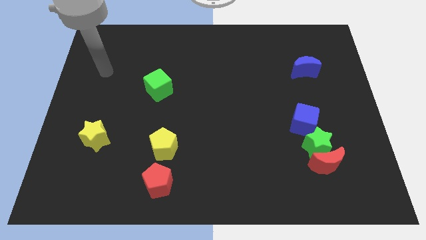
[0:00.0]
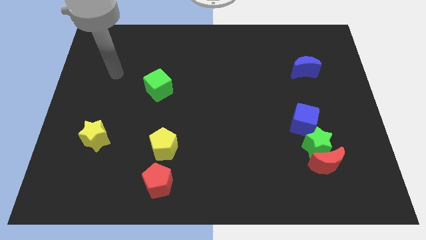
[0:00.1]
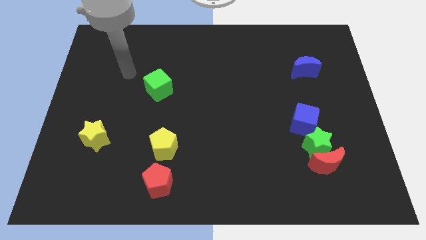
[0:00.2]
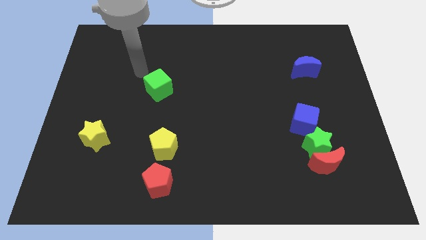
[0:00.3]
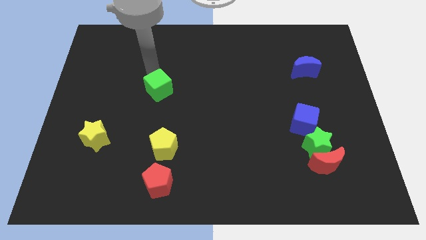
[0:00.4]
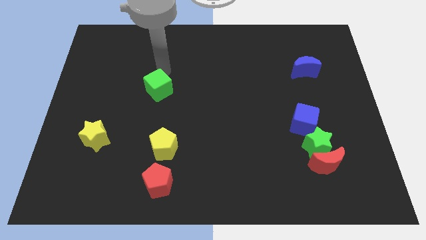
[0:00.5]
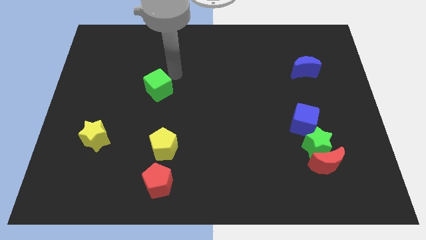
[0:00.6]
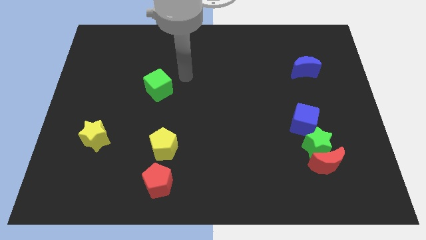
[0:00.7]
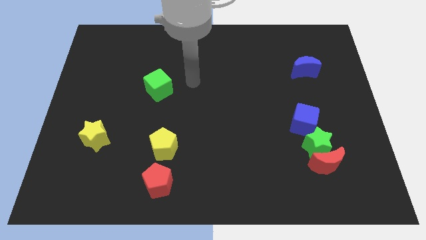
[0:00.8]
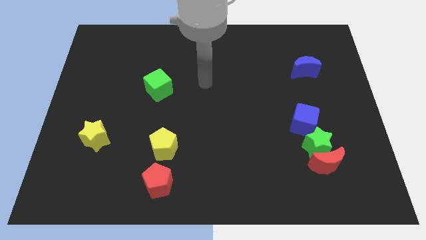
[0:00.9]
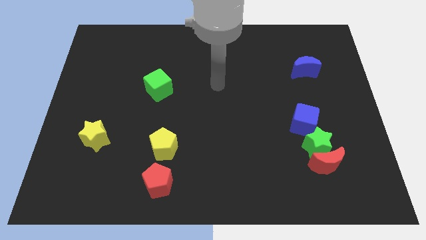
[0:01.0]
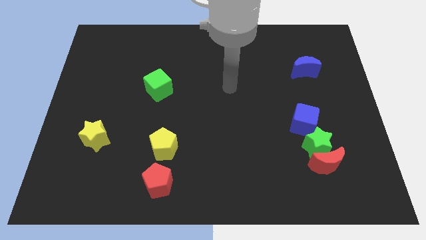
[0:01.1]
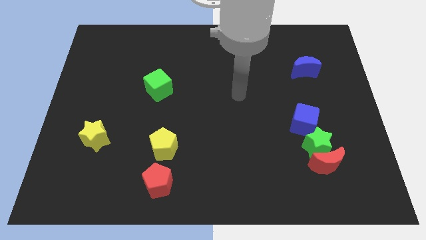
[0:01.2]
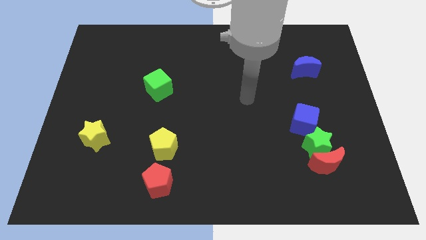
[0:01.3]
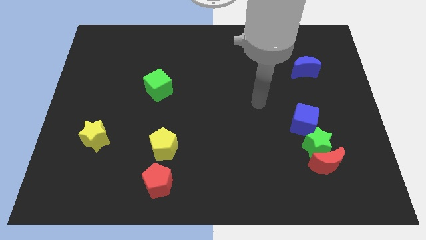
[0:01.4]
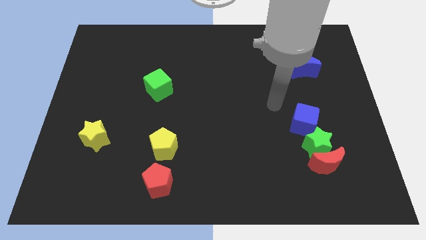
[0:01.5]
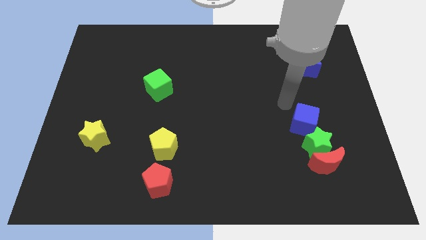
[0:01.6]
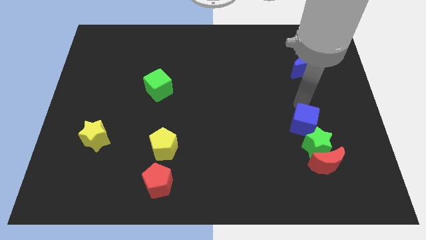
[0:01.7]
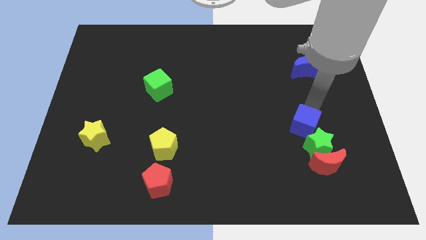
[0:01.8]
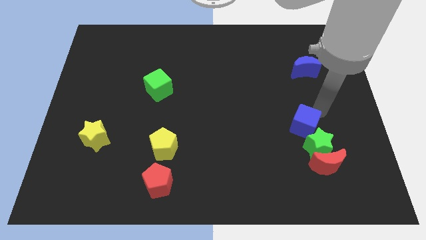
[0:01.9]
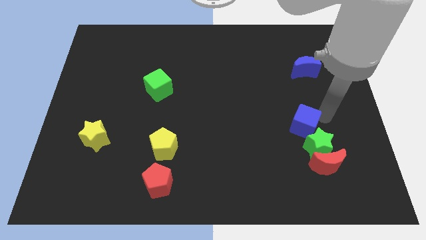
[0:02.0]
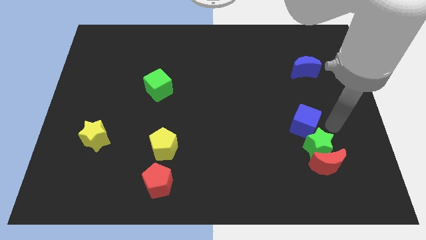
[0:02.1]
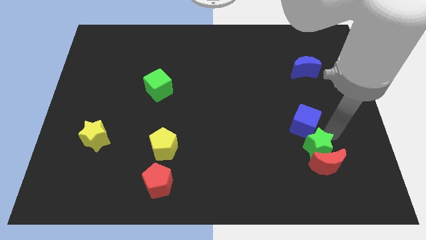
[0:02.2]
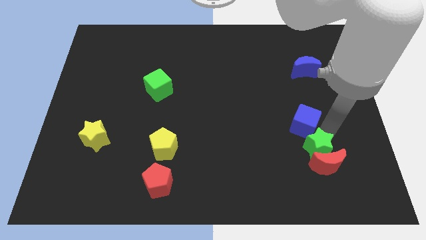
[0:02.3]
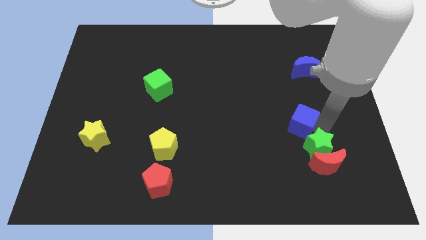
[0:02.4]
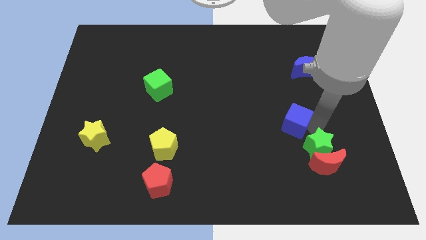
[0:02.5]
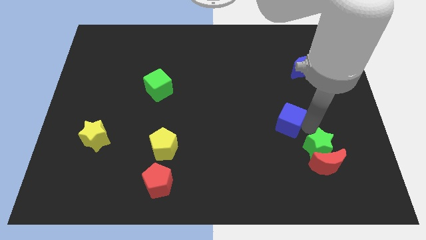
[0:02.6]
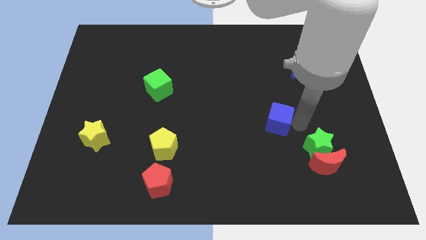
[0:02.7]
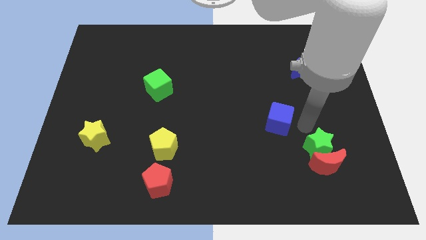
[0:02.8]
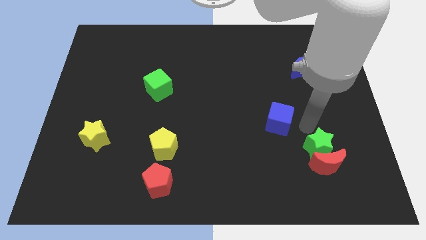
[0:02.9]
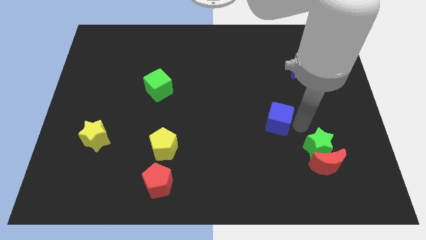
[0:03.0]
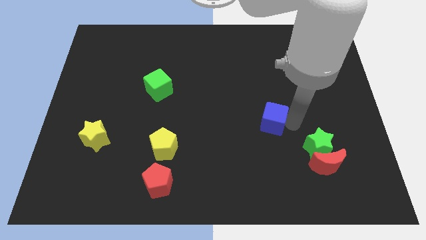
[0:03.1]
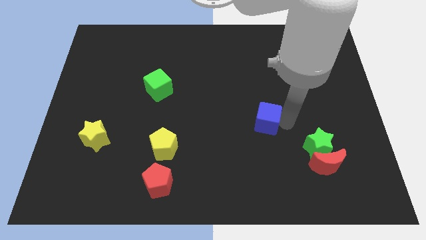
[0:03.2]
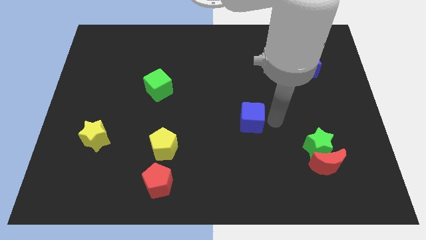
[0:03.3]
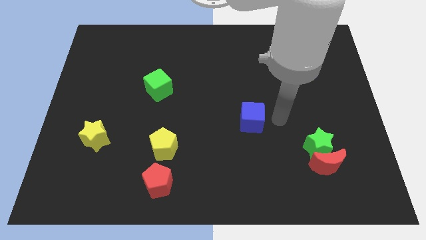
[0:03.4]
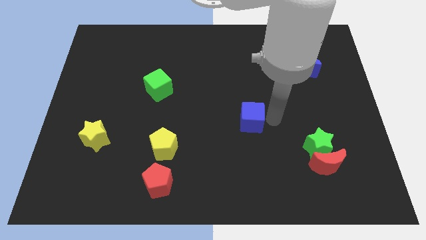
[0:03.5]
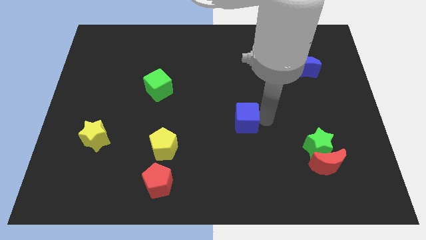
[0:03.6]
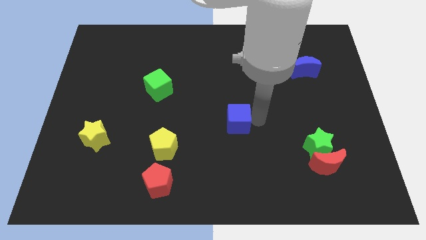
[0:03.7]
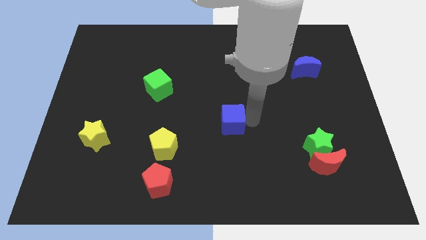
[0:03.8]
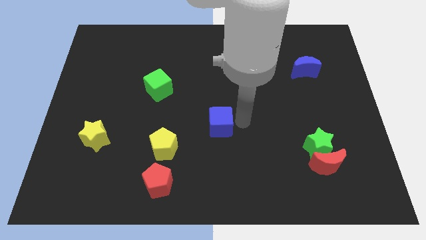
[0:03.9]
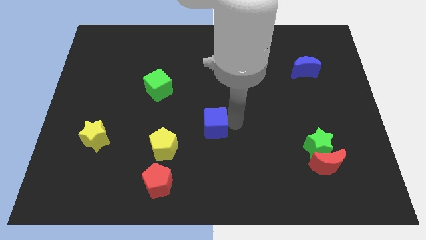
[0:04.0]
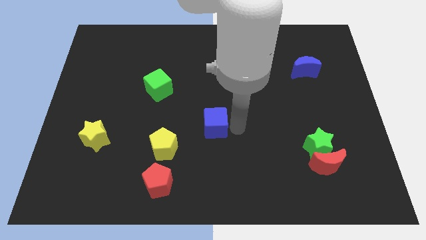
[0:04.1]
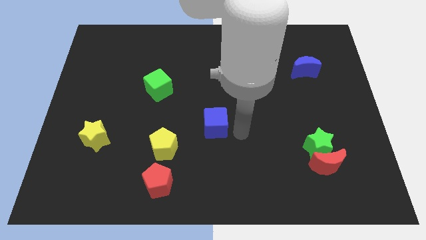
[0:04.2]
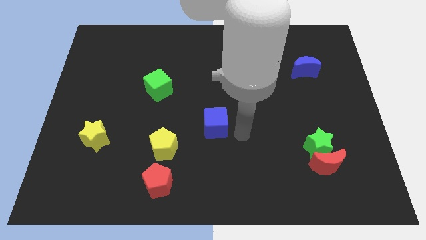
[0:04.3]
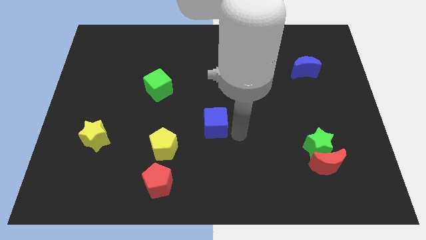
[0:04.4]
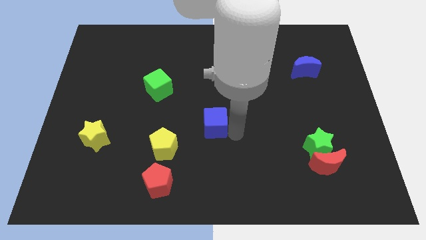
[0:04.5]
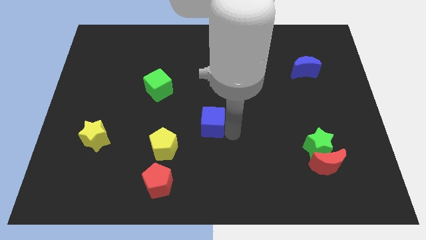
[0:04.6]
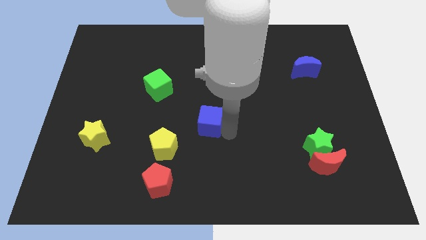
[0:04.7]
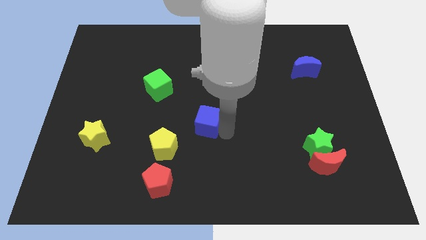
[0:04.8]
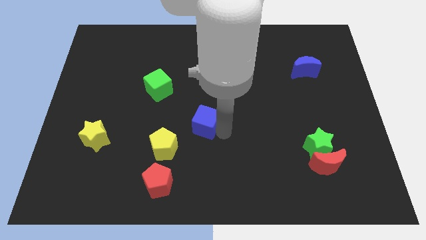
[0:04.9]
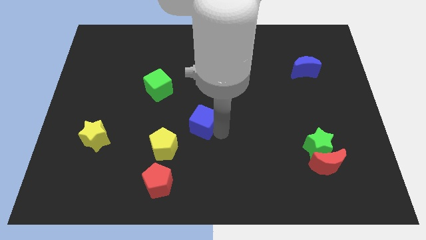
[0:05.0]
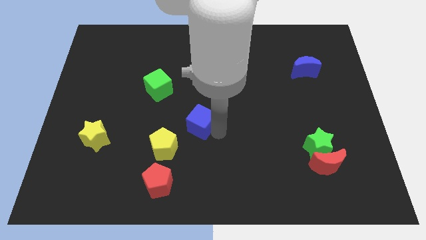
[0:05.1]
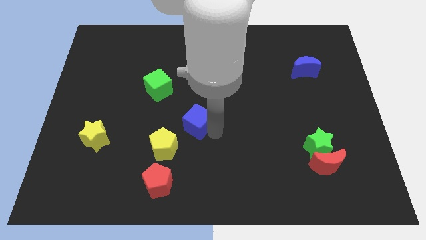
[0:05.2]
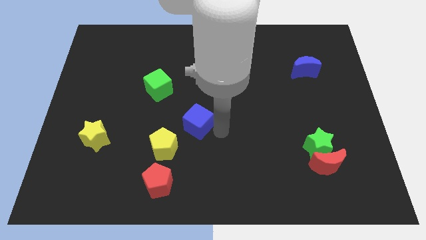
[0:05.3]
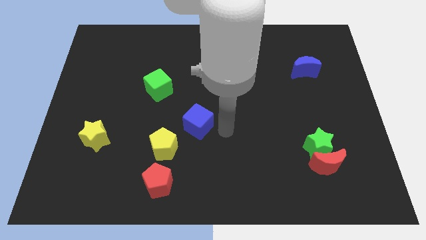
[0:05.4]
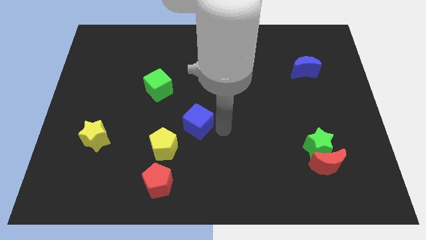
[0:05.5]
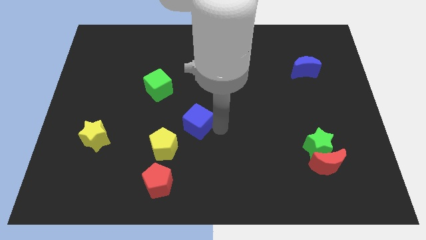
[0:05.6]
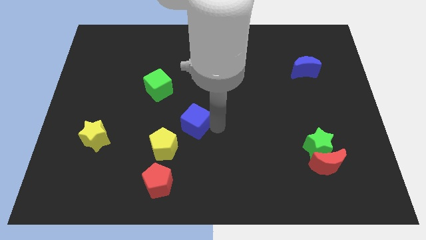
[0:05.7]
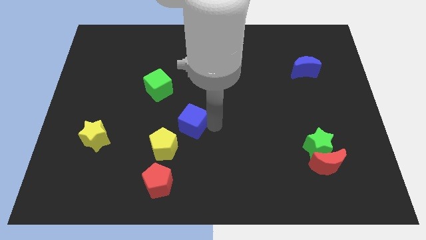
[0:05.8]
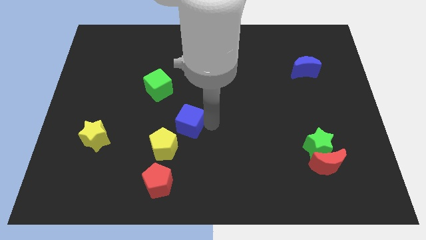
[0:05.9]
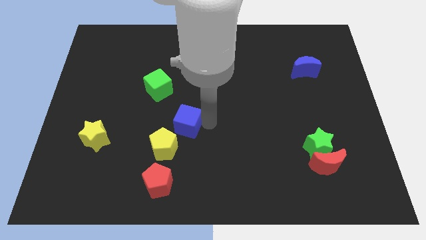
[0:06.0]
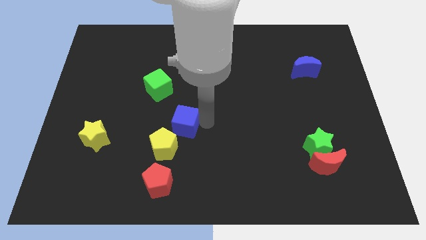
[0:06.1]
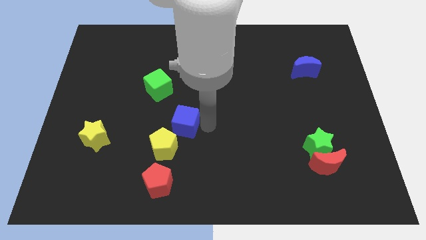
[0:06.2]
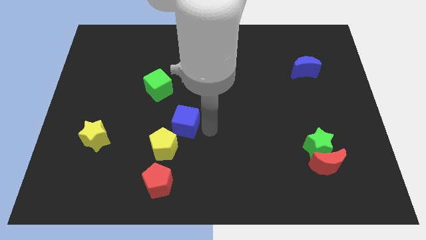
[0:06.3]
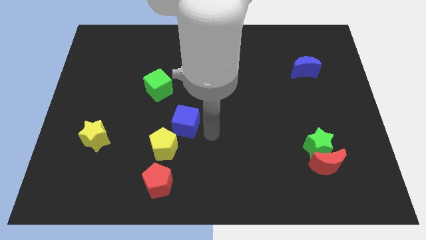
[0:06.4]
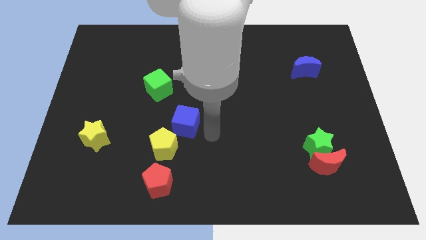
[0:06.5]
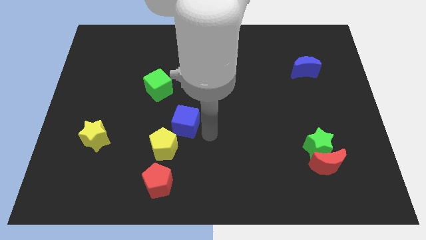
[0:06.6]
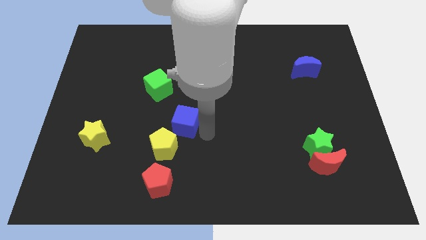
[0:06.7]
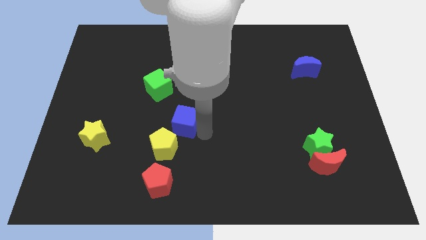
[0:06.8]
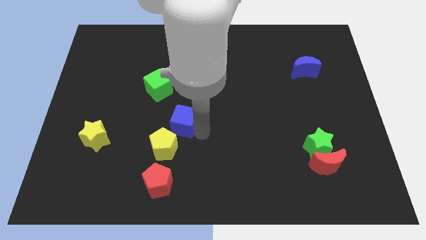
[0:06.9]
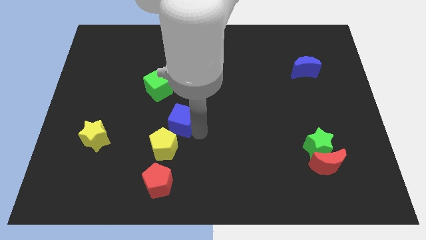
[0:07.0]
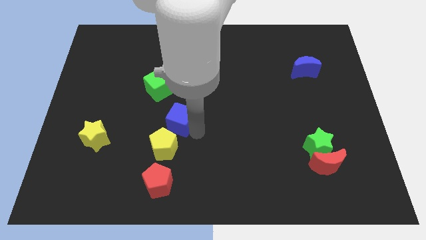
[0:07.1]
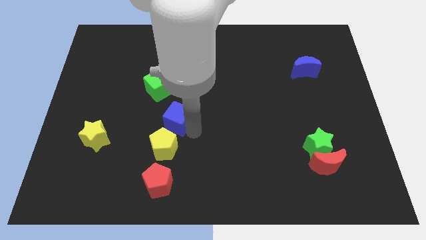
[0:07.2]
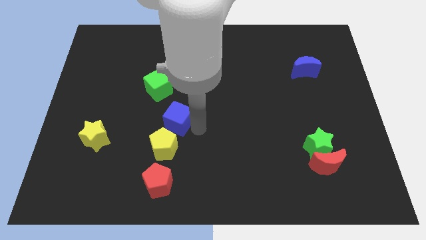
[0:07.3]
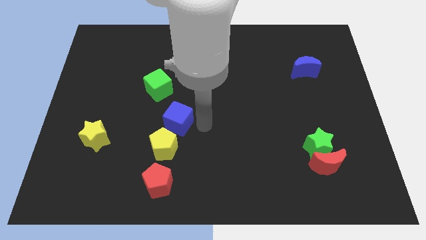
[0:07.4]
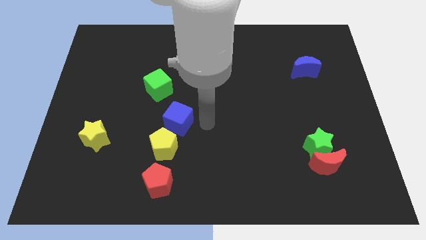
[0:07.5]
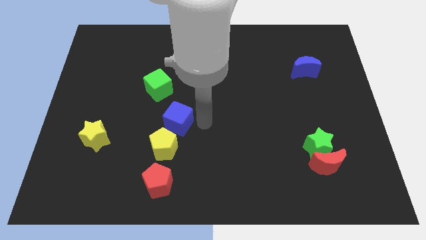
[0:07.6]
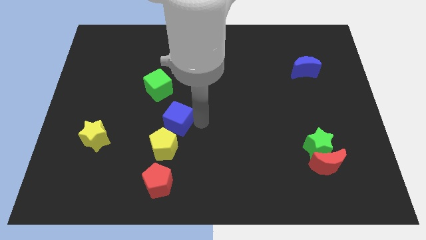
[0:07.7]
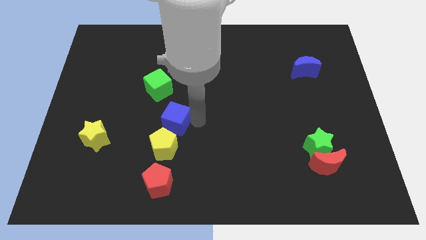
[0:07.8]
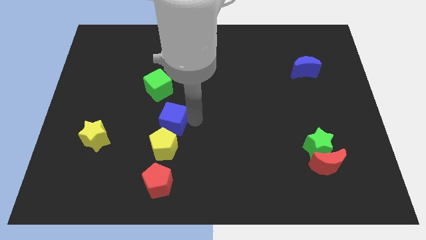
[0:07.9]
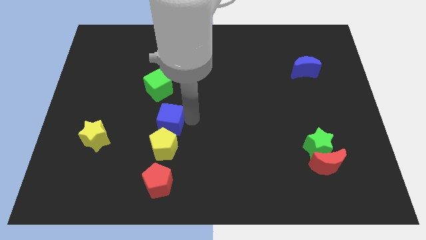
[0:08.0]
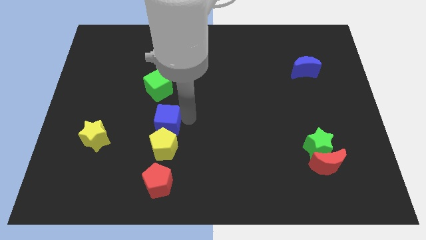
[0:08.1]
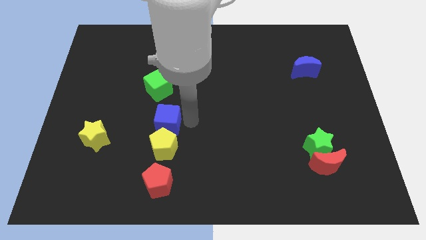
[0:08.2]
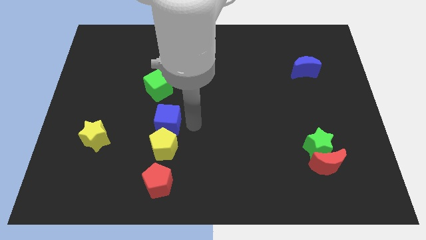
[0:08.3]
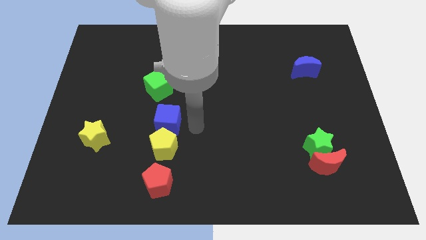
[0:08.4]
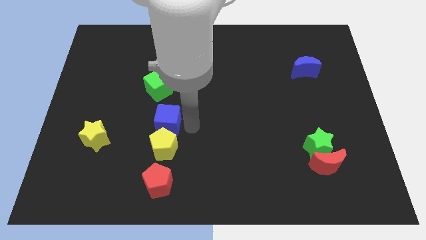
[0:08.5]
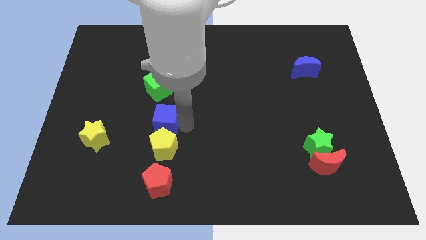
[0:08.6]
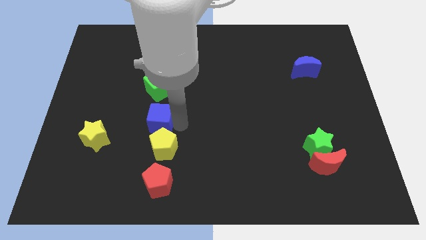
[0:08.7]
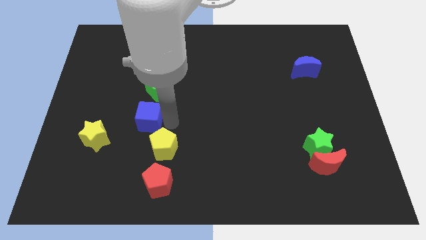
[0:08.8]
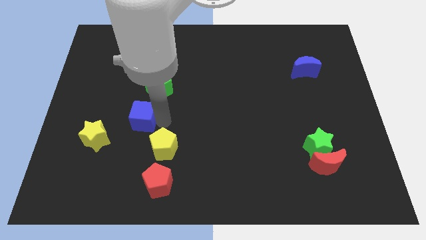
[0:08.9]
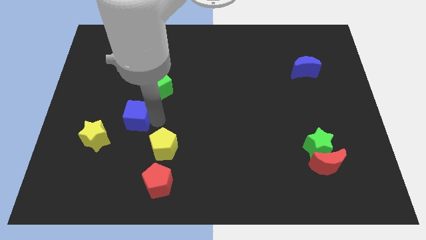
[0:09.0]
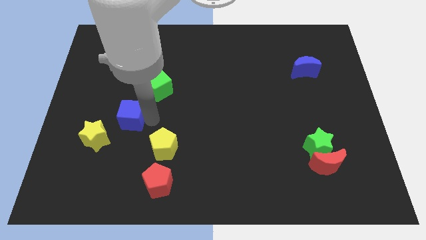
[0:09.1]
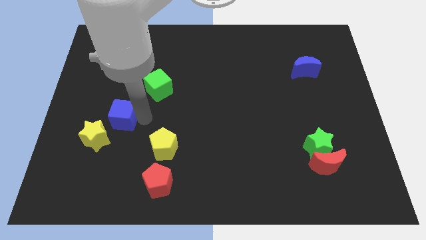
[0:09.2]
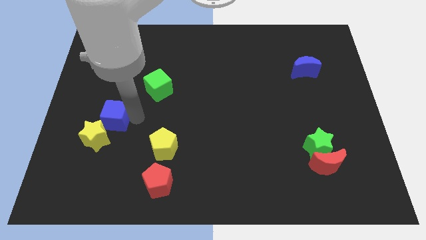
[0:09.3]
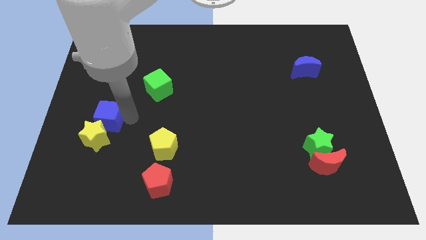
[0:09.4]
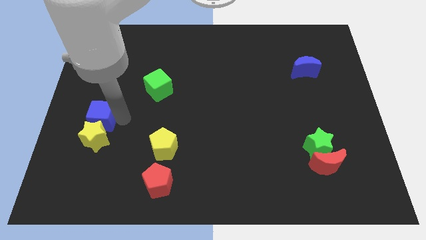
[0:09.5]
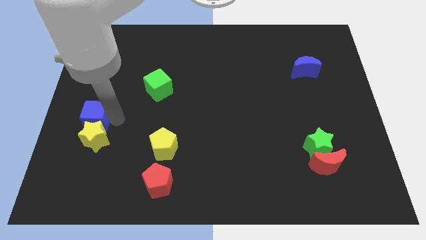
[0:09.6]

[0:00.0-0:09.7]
push the blue cube to the left side of the board
